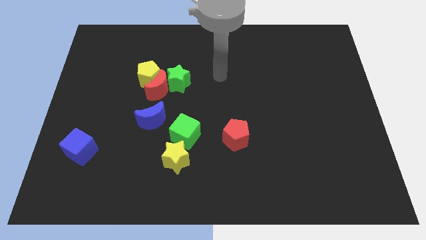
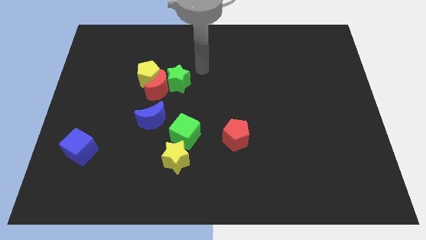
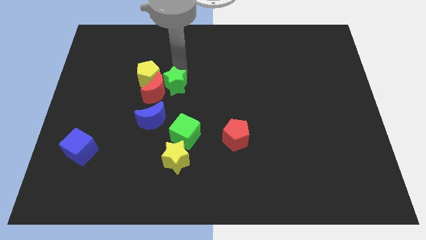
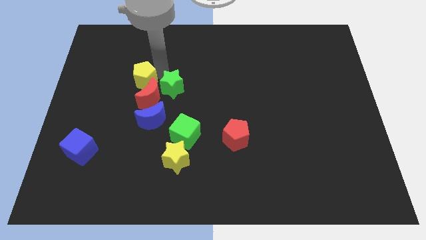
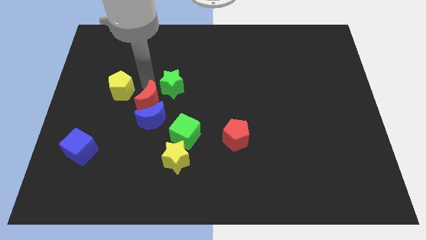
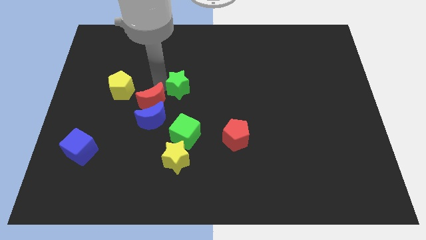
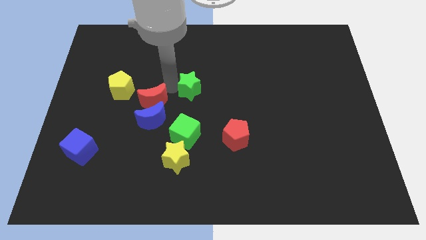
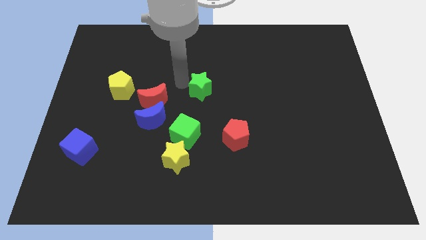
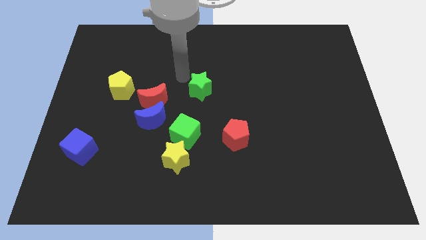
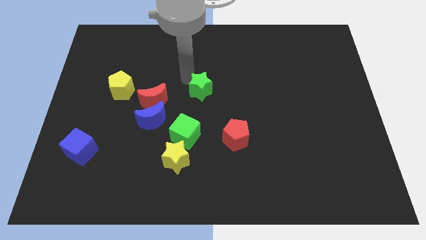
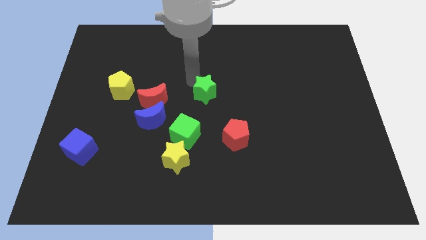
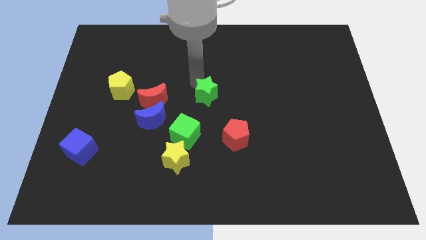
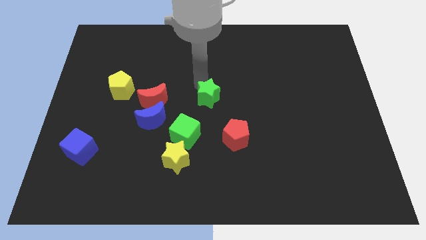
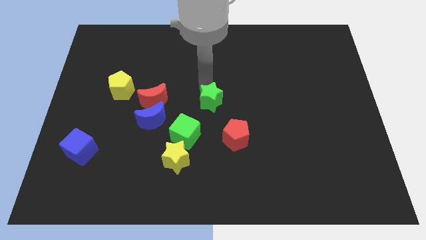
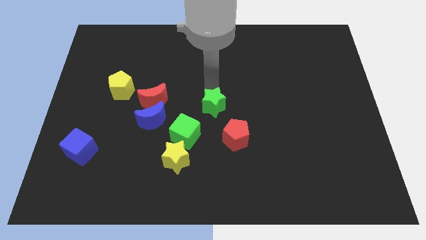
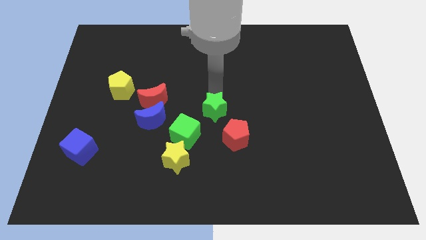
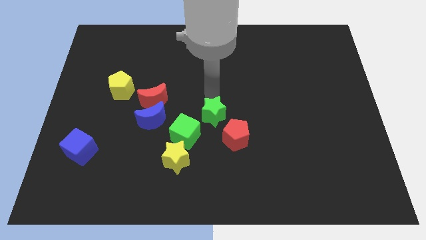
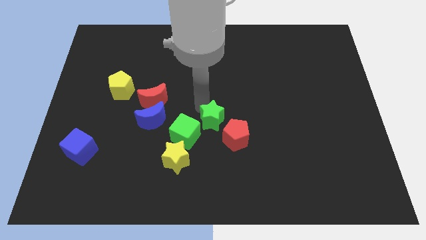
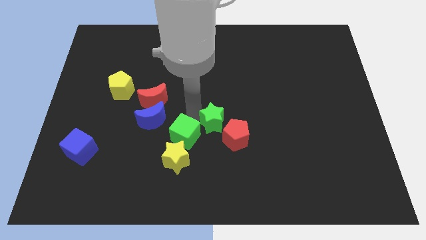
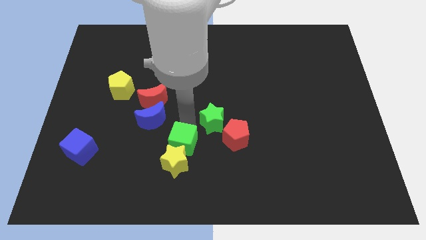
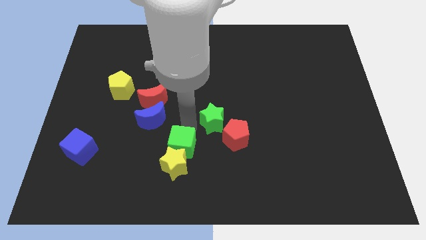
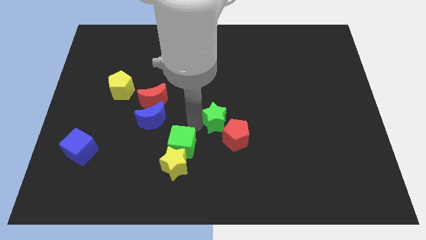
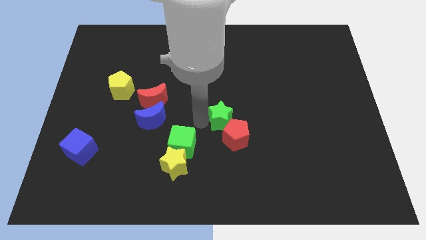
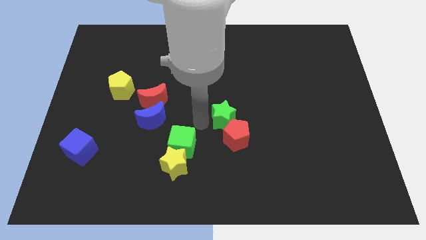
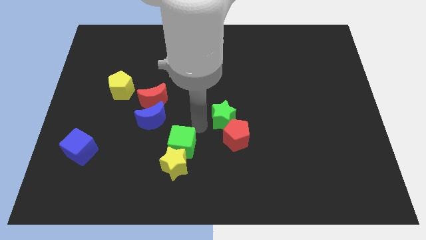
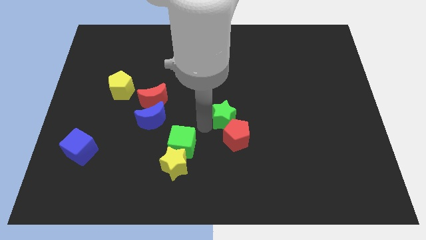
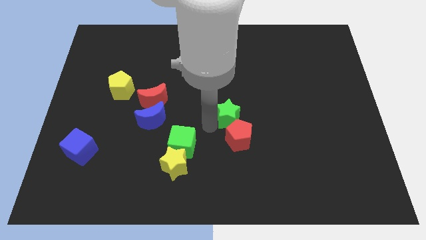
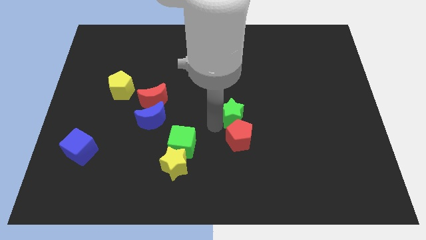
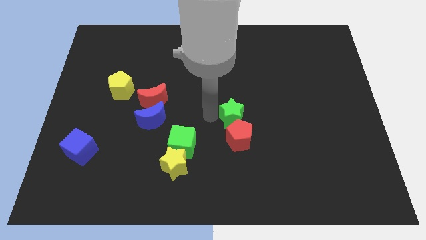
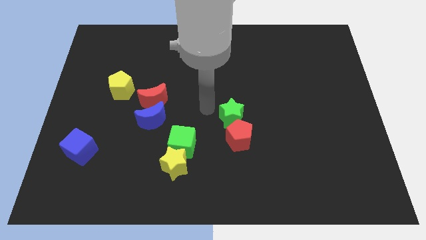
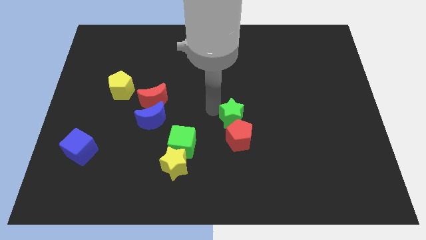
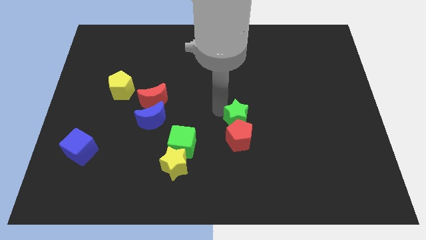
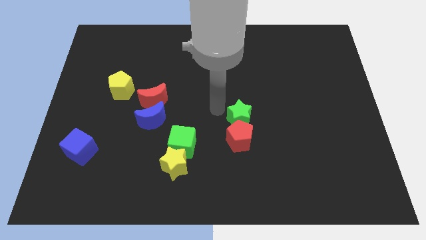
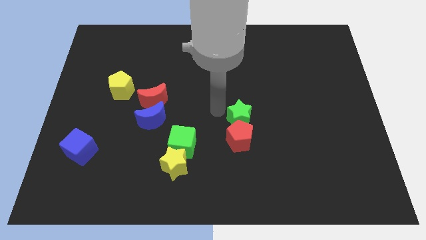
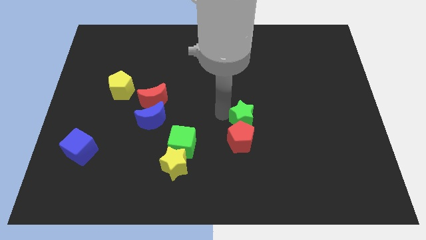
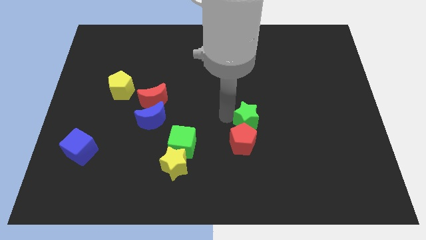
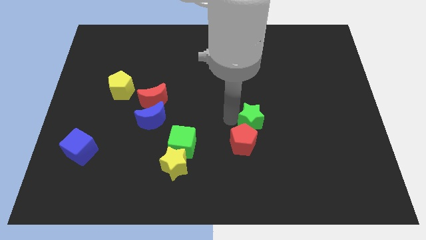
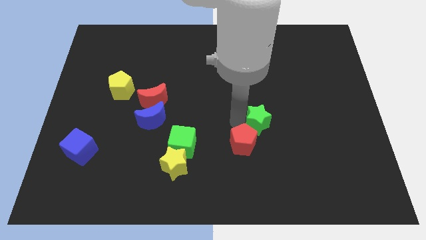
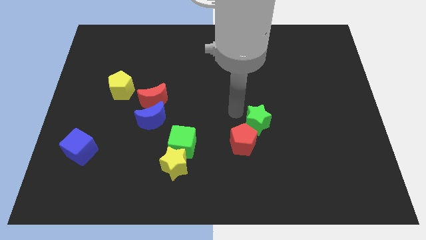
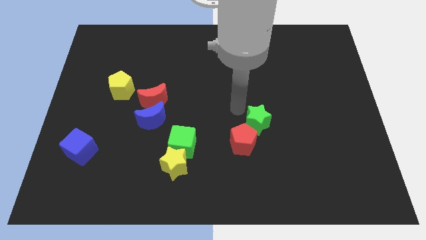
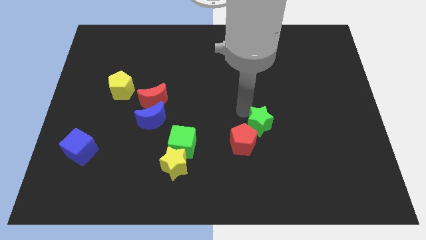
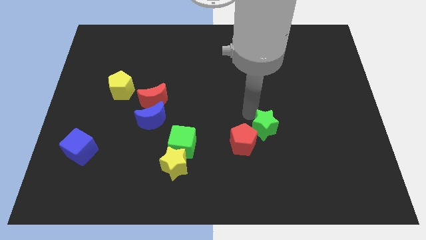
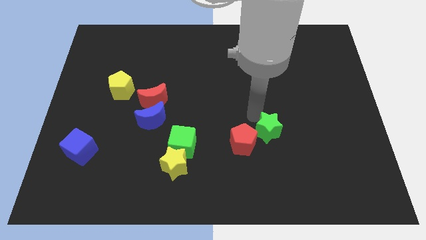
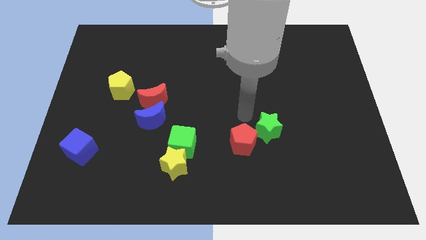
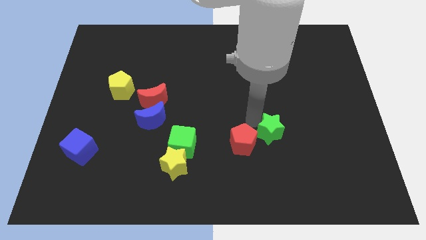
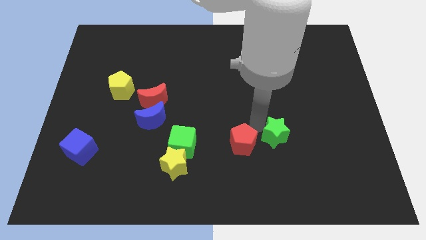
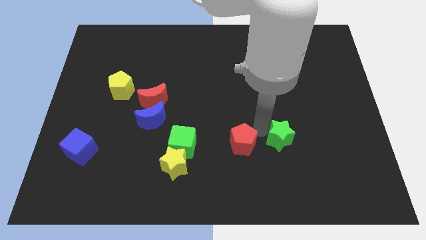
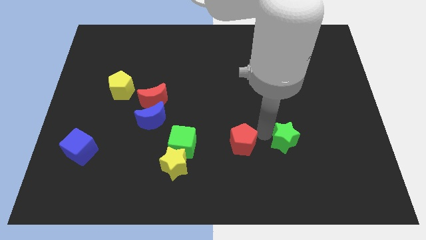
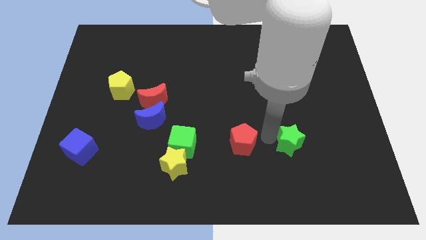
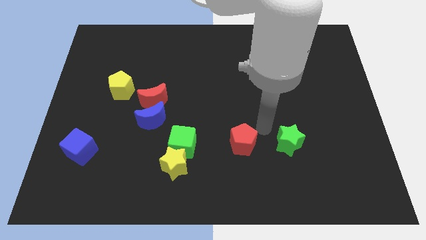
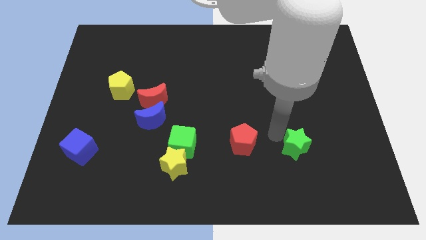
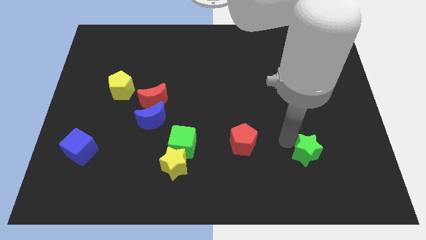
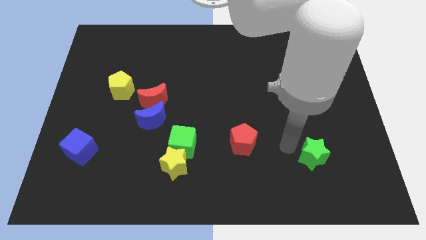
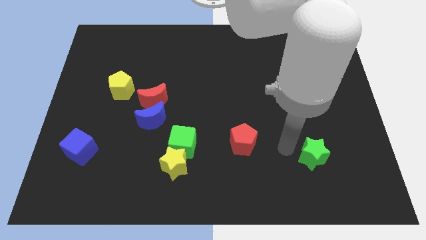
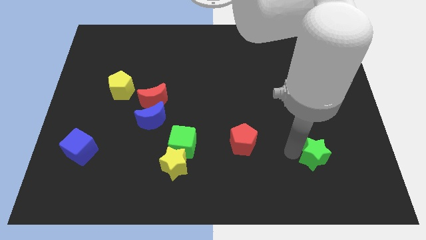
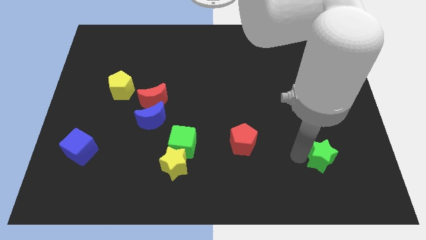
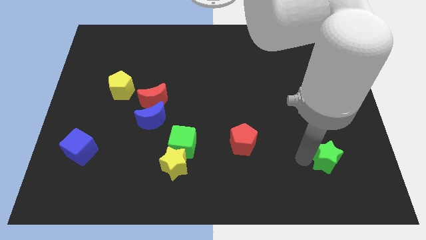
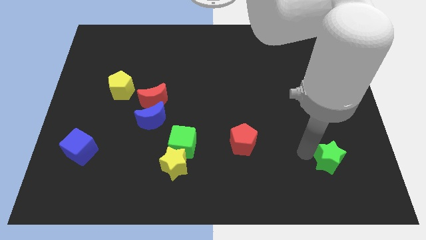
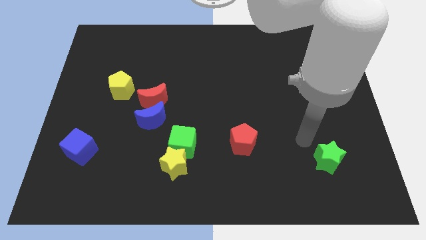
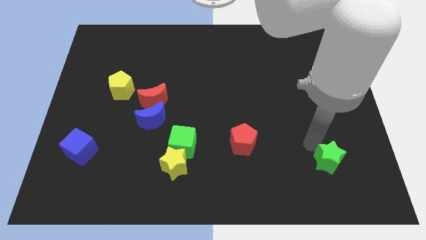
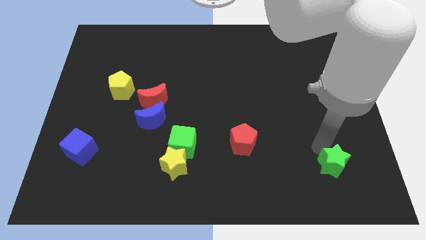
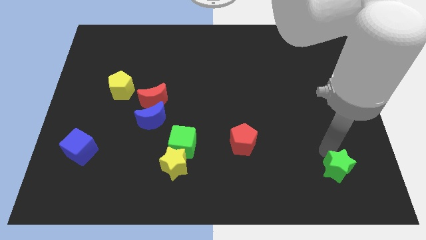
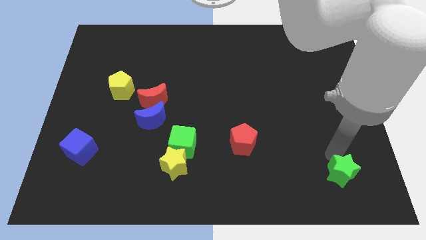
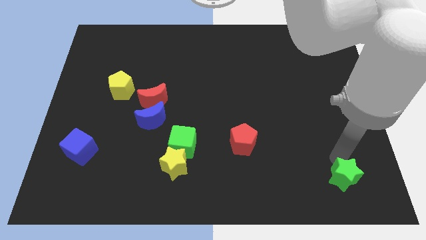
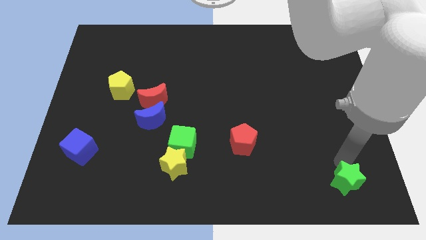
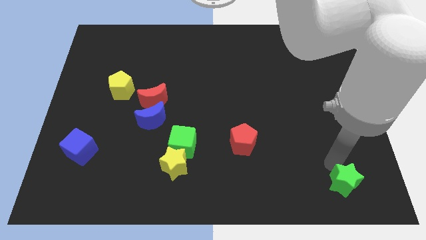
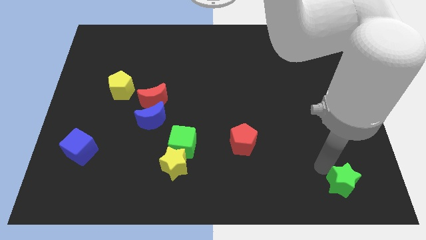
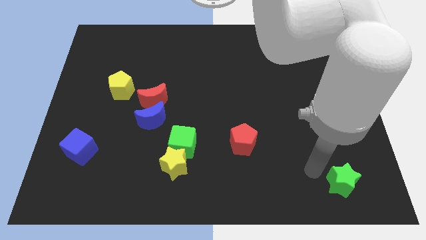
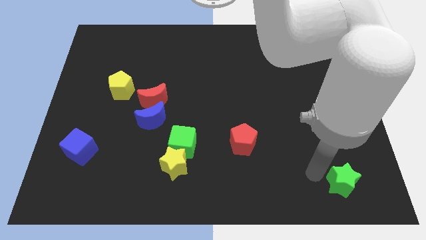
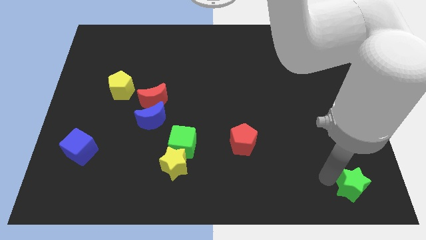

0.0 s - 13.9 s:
move the green star to the bottom right
